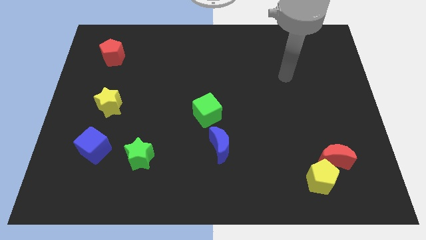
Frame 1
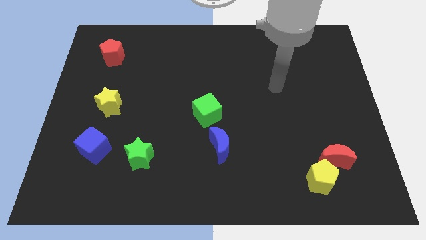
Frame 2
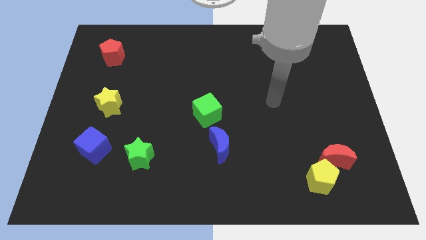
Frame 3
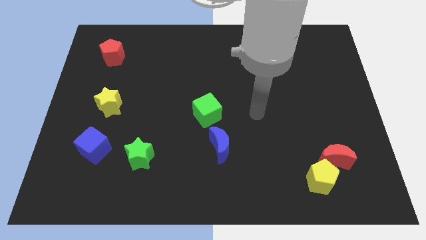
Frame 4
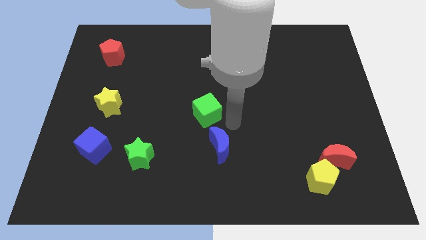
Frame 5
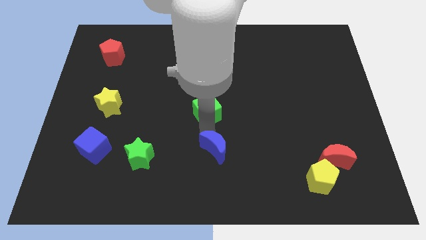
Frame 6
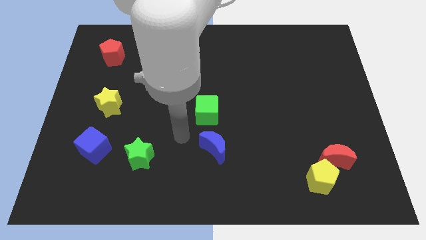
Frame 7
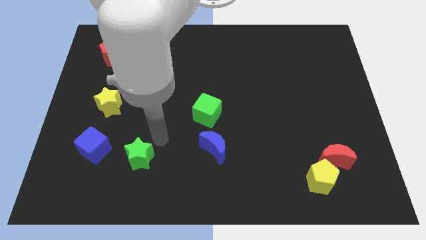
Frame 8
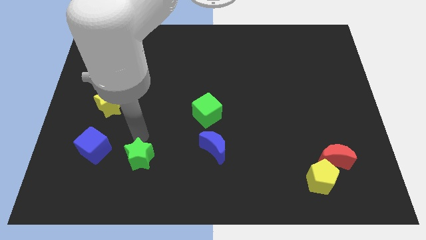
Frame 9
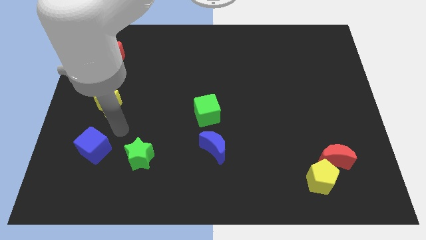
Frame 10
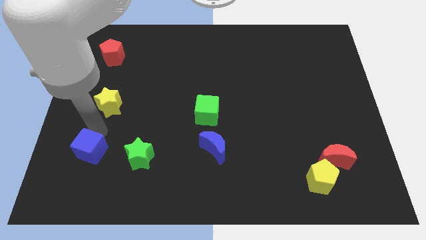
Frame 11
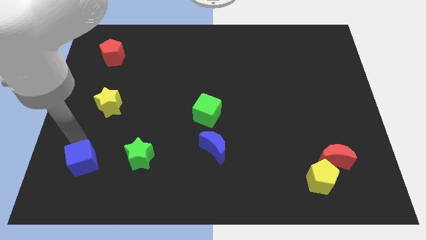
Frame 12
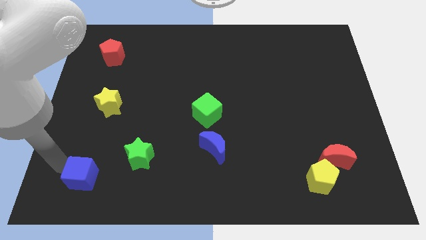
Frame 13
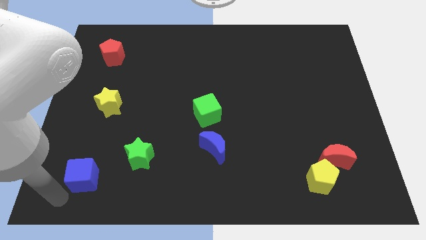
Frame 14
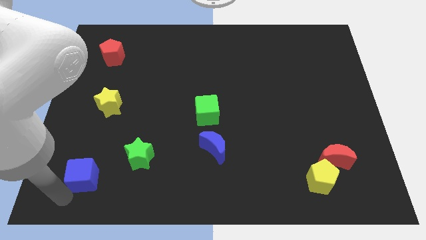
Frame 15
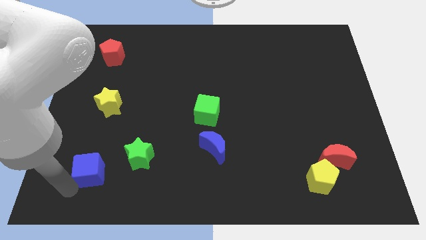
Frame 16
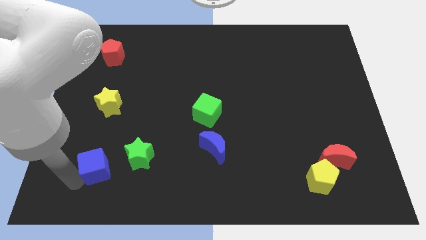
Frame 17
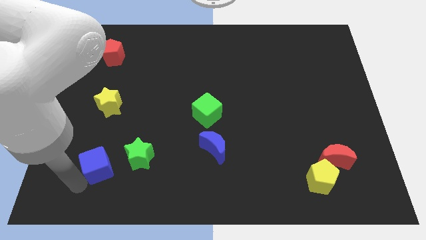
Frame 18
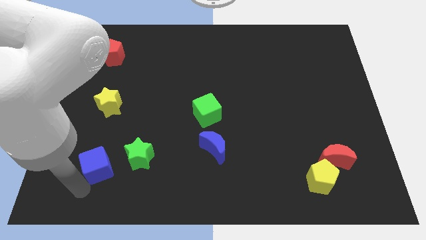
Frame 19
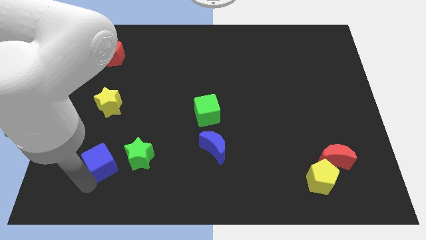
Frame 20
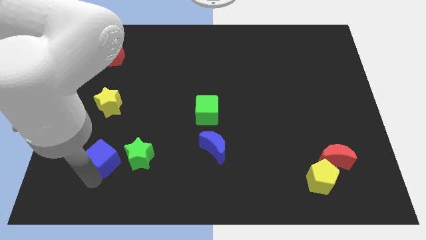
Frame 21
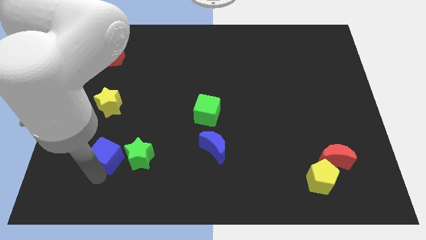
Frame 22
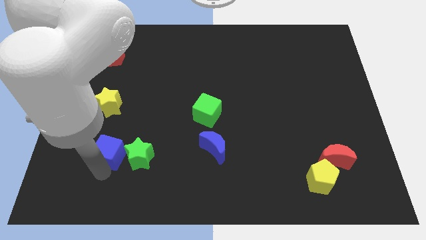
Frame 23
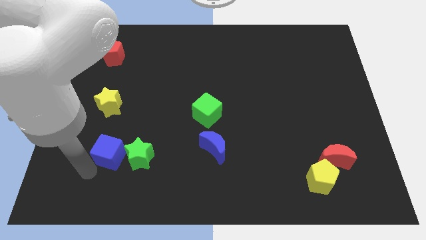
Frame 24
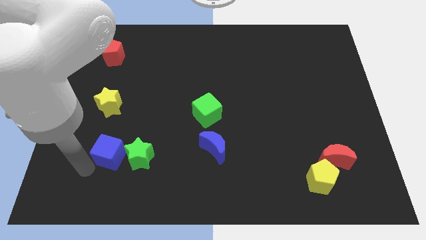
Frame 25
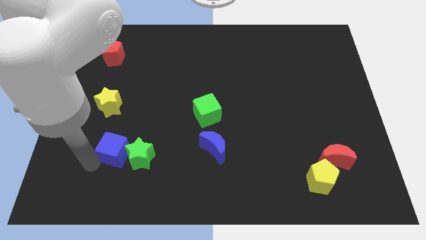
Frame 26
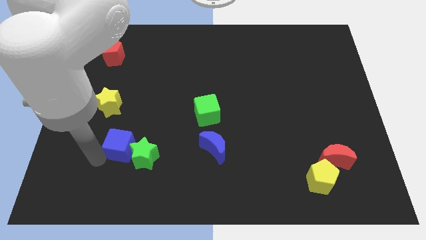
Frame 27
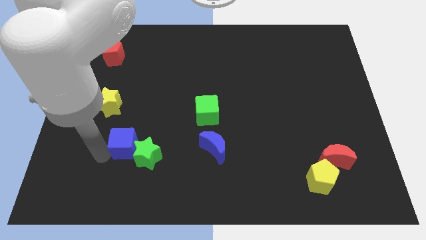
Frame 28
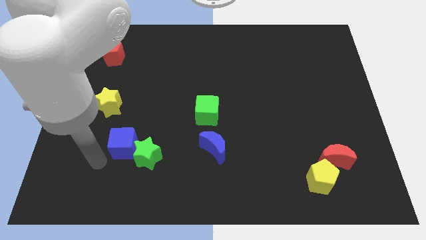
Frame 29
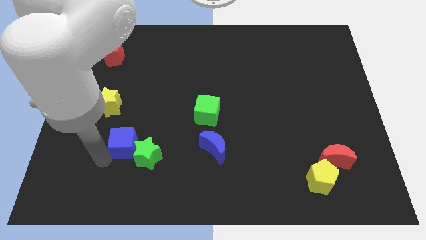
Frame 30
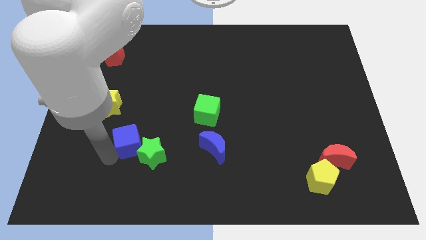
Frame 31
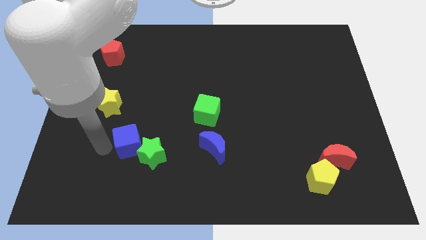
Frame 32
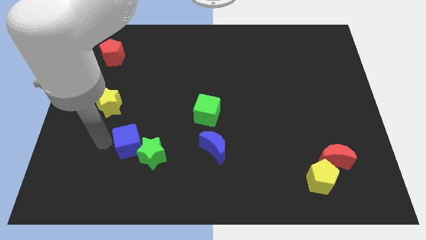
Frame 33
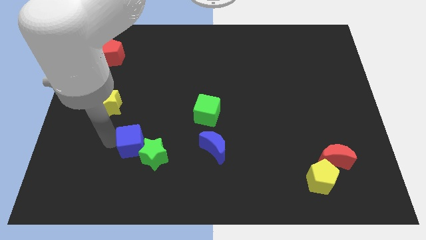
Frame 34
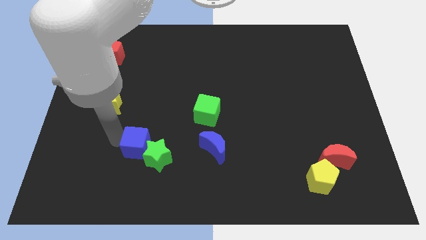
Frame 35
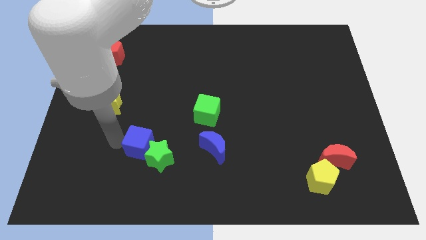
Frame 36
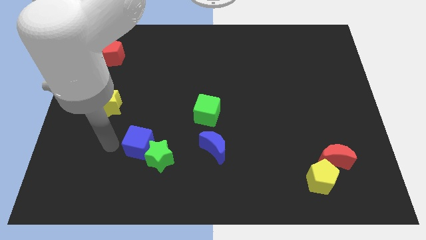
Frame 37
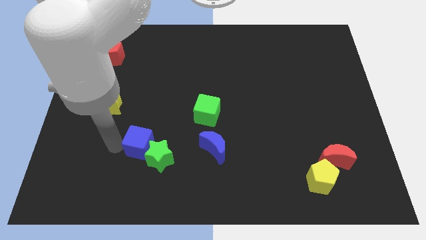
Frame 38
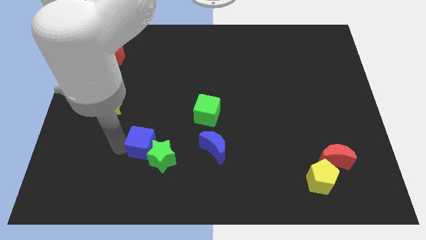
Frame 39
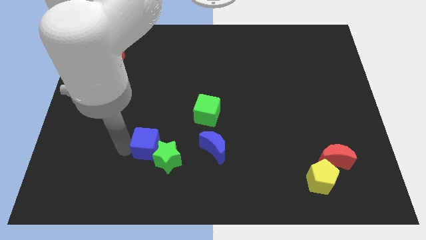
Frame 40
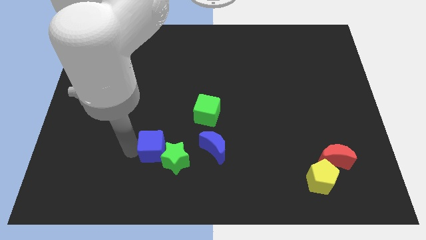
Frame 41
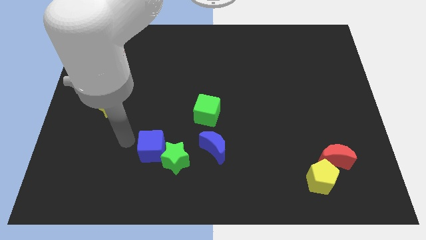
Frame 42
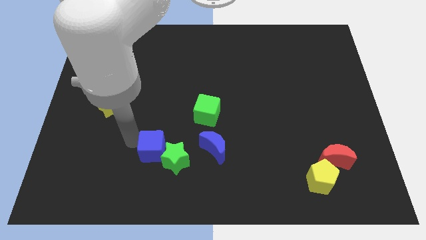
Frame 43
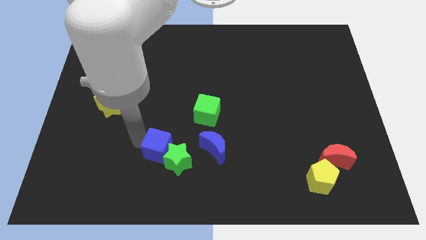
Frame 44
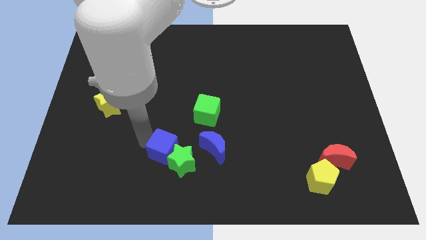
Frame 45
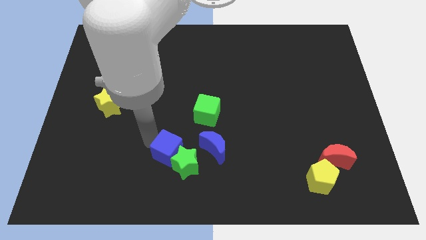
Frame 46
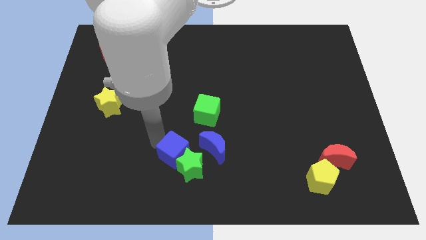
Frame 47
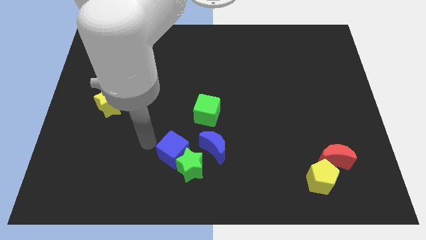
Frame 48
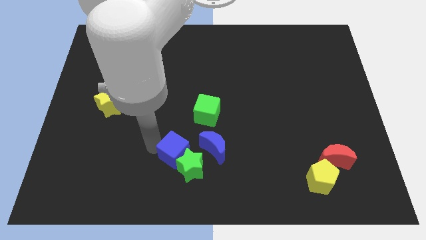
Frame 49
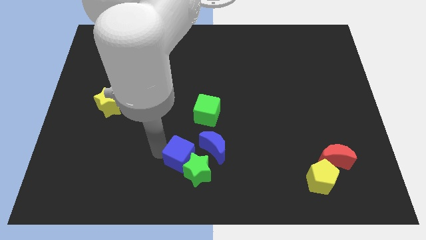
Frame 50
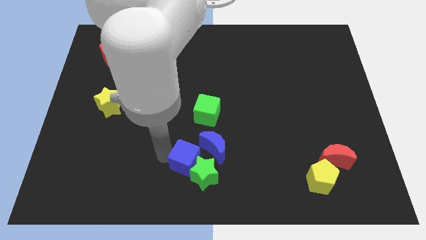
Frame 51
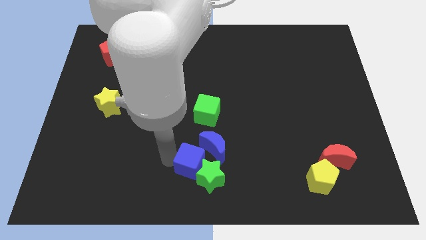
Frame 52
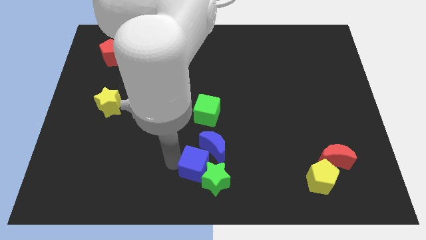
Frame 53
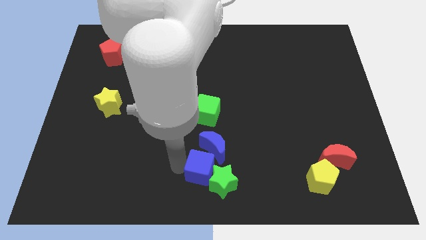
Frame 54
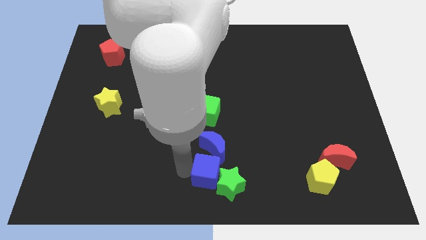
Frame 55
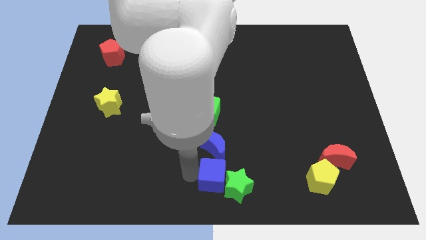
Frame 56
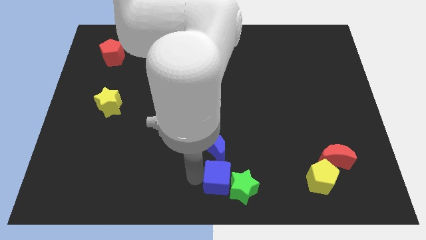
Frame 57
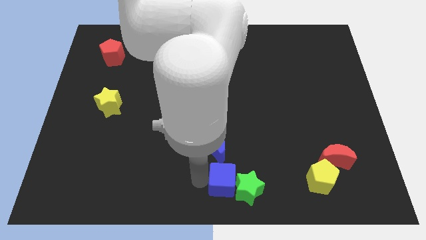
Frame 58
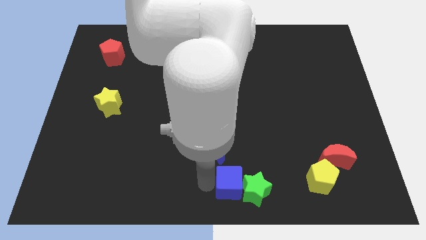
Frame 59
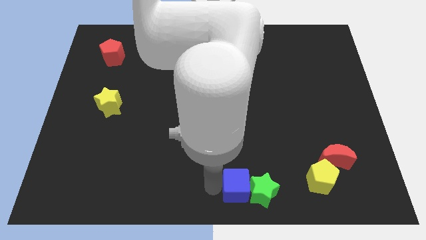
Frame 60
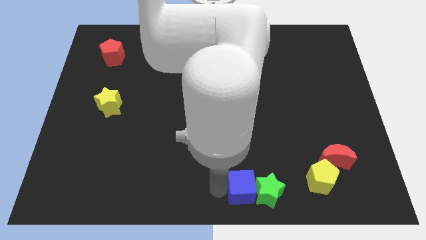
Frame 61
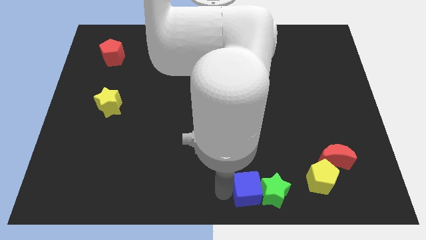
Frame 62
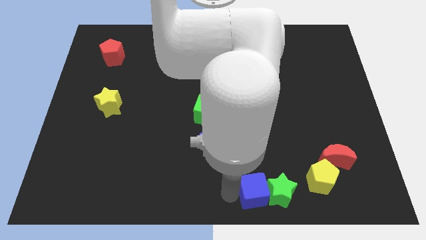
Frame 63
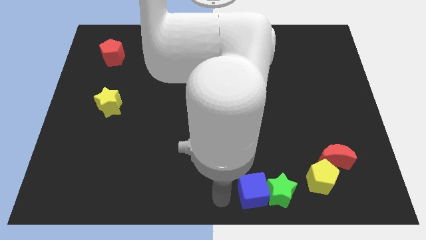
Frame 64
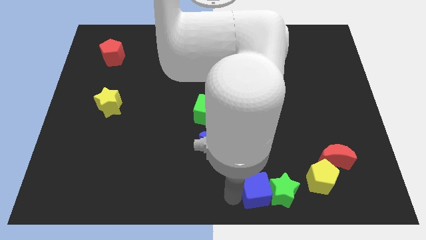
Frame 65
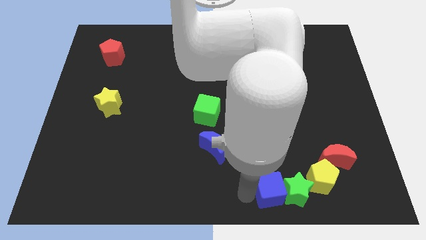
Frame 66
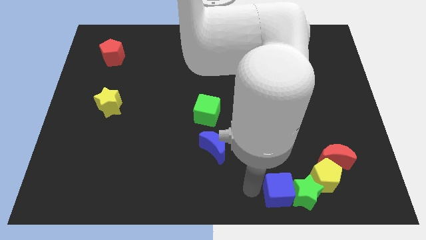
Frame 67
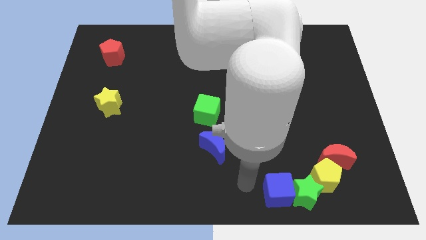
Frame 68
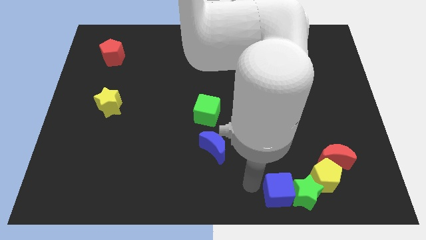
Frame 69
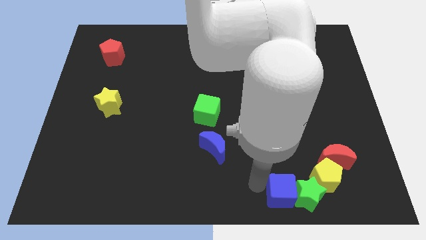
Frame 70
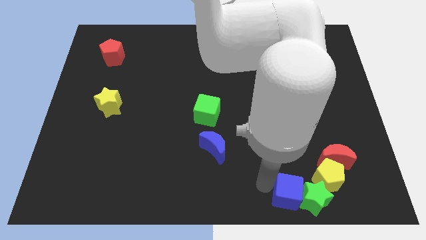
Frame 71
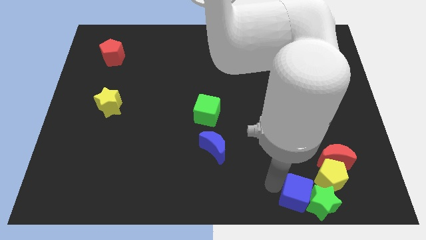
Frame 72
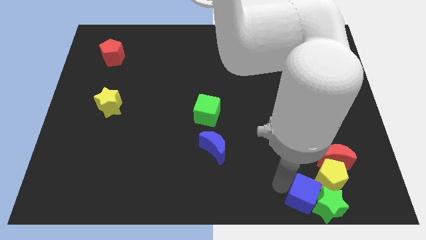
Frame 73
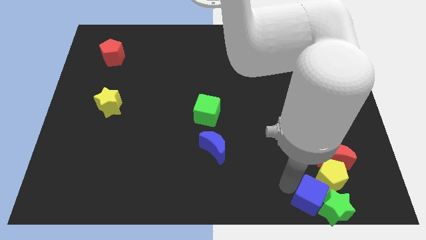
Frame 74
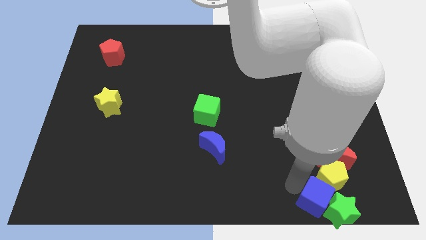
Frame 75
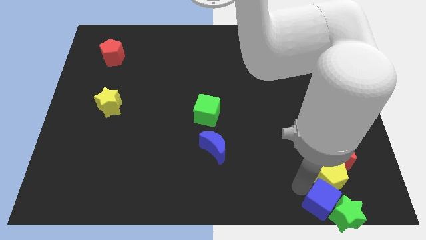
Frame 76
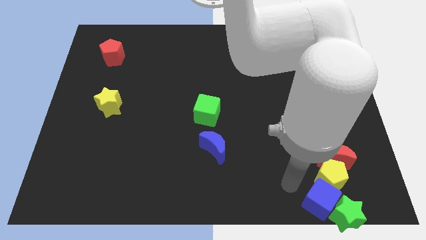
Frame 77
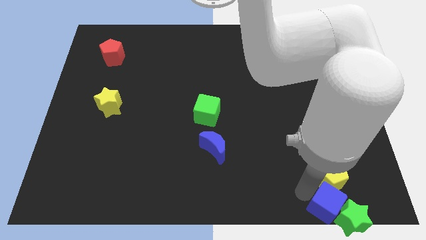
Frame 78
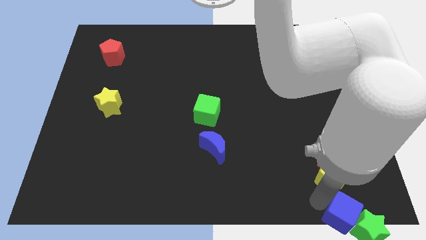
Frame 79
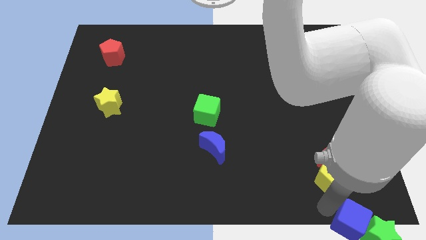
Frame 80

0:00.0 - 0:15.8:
push the blue cube to the bottom right of the board
